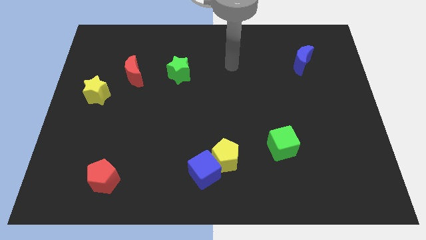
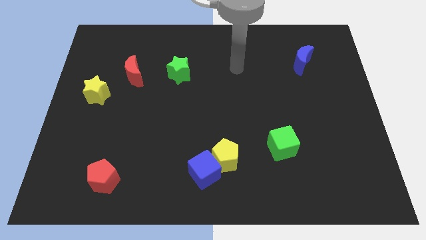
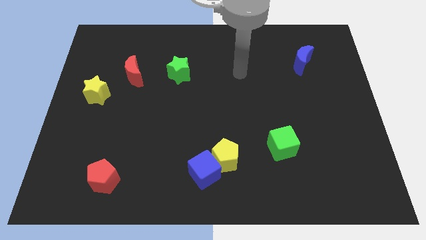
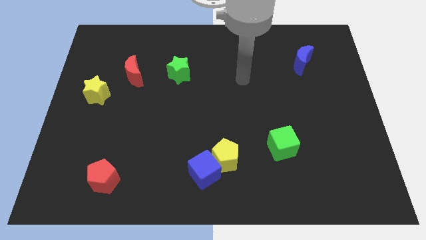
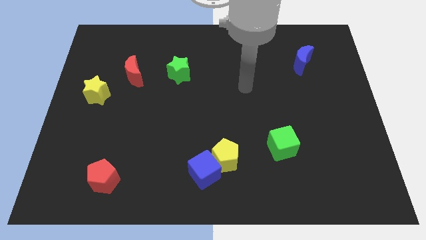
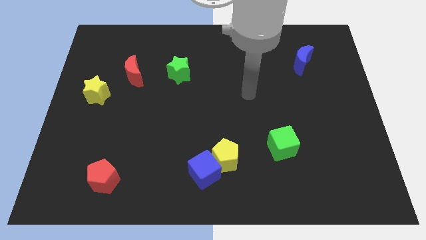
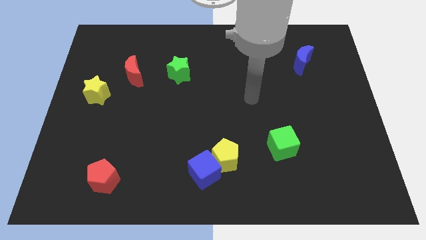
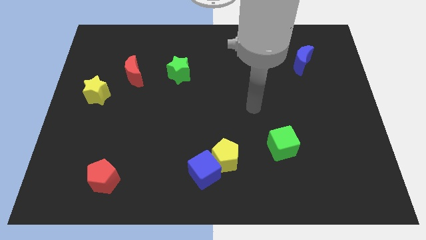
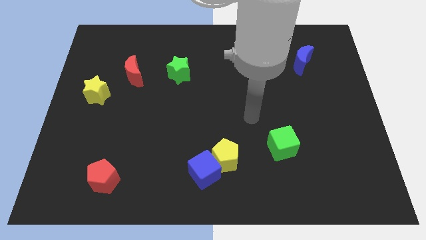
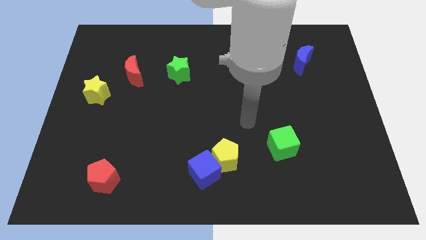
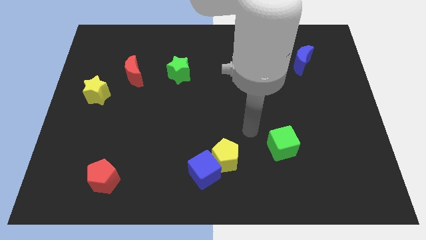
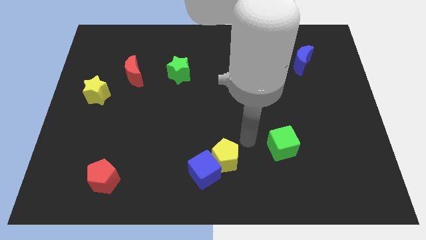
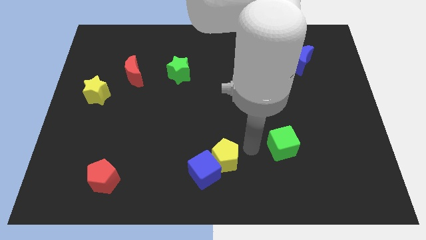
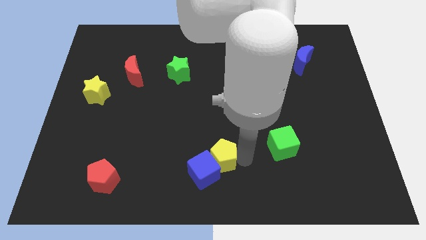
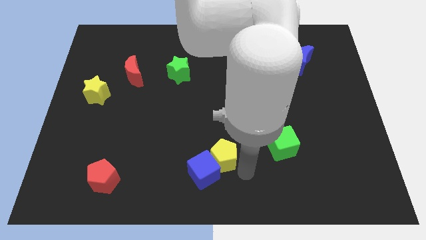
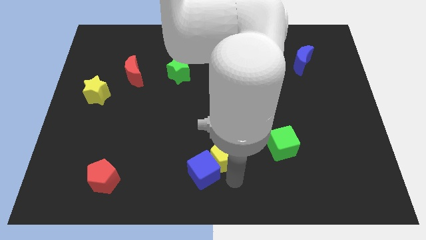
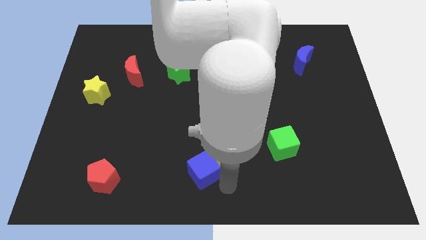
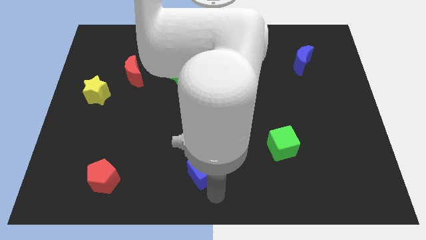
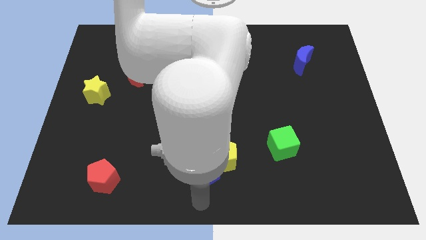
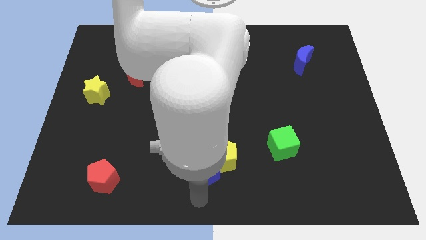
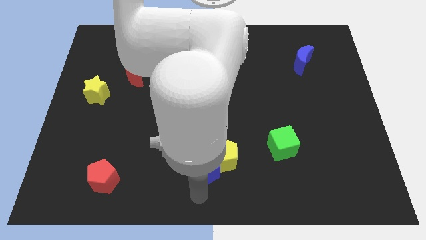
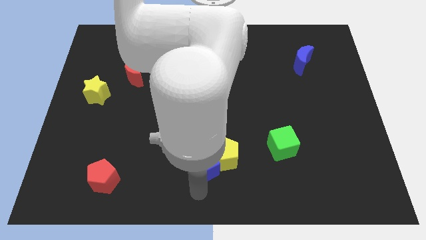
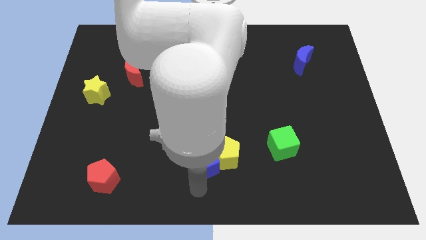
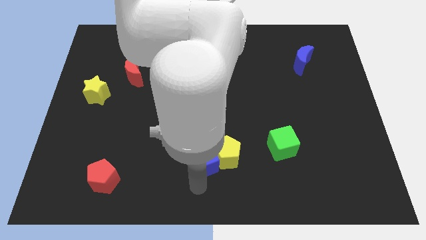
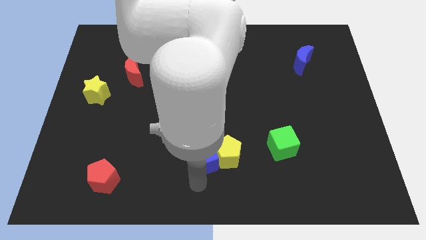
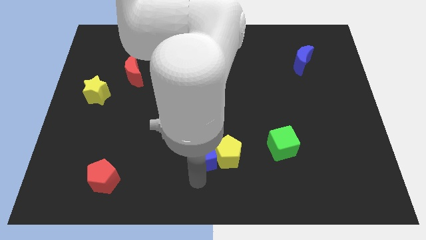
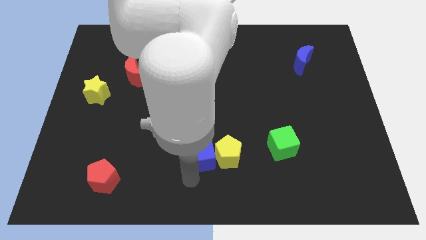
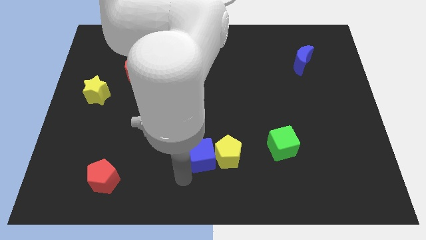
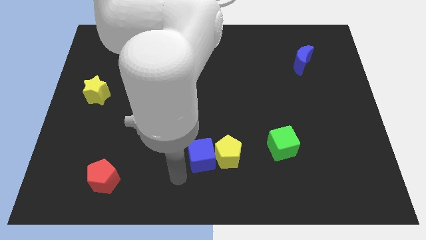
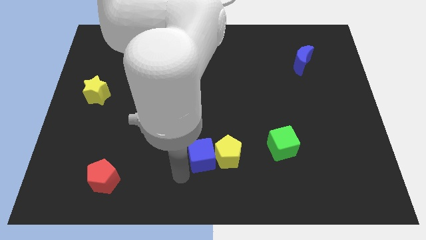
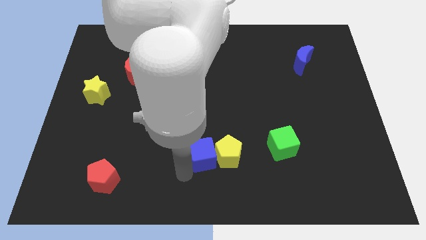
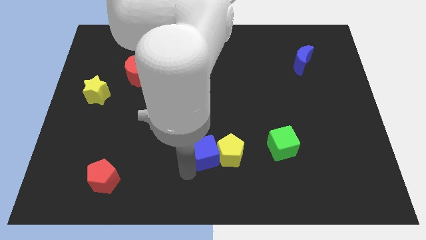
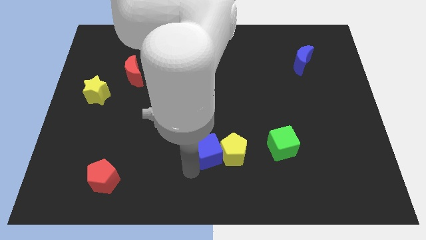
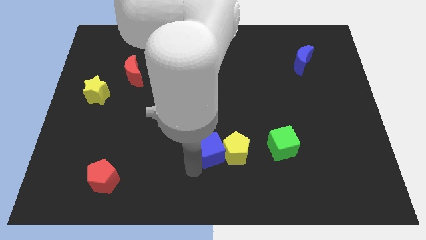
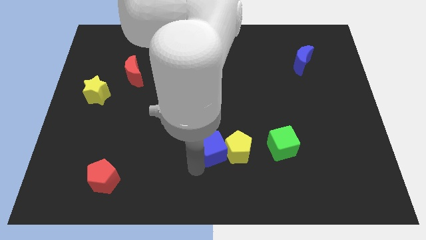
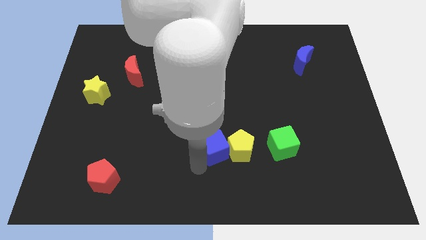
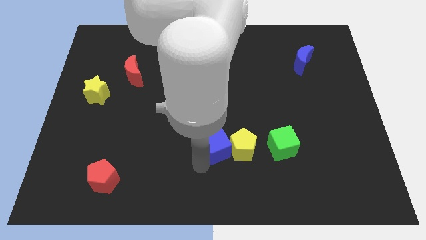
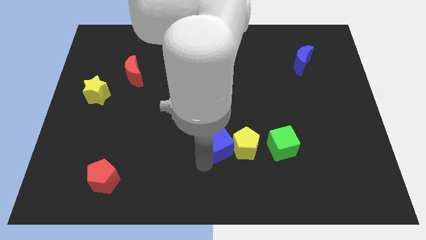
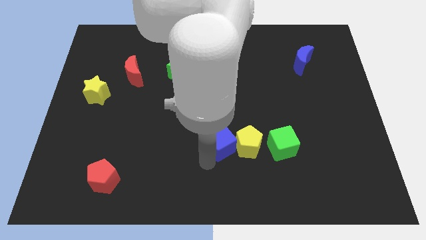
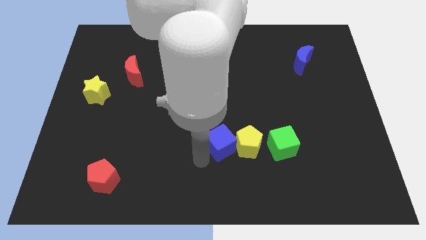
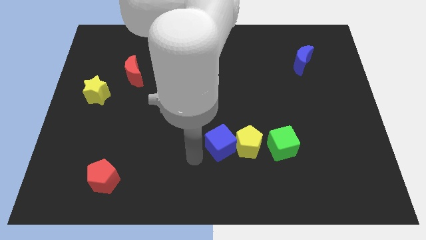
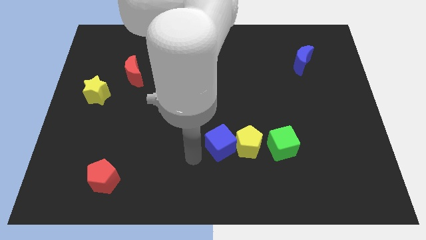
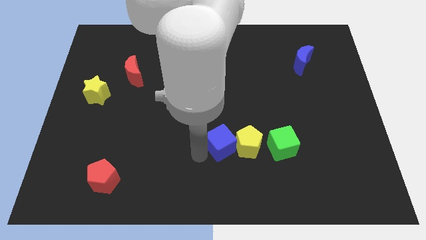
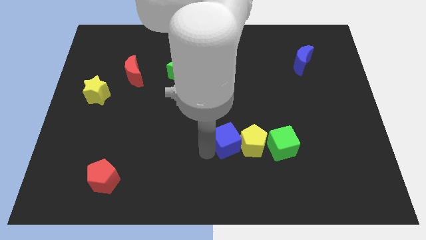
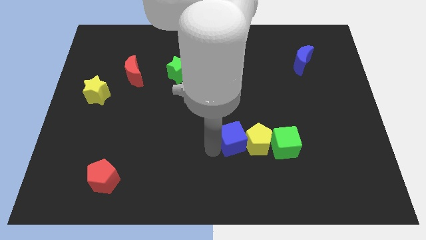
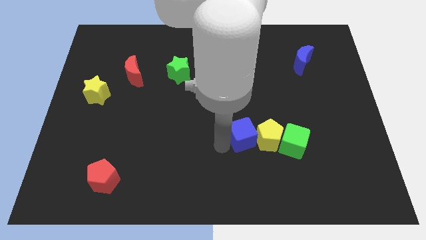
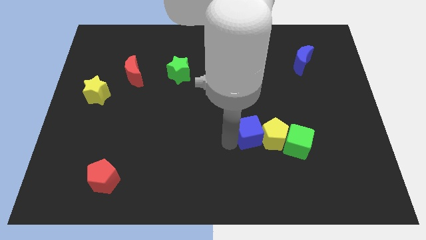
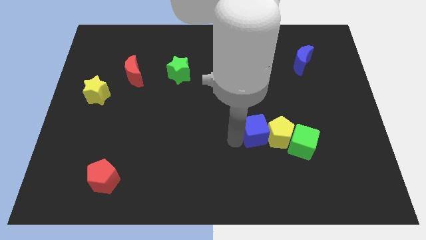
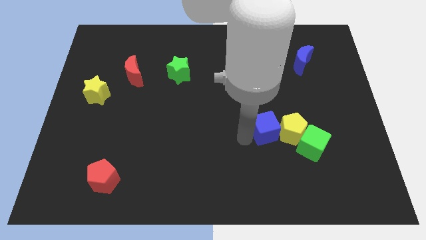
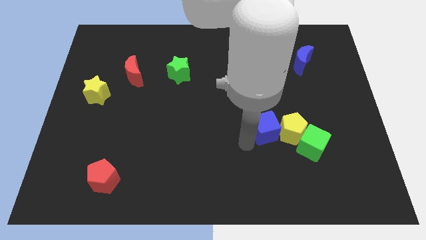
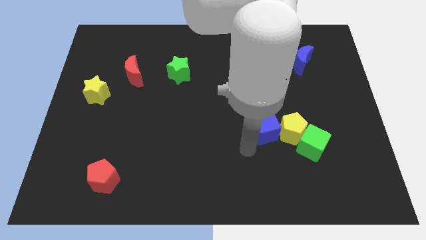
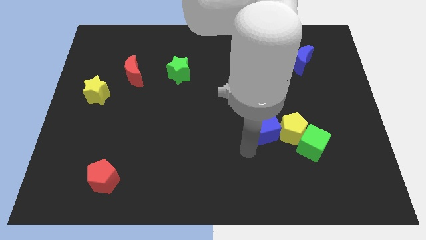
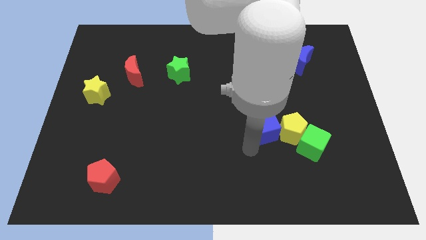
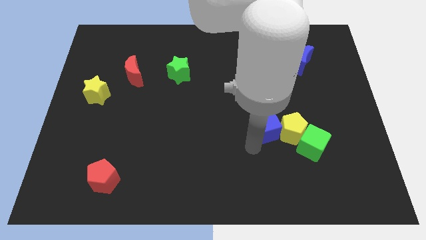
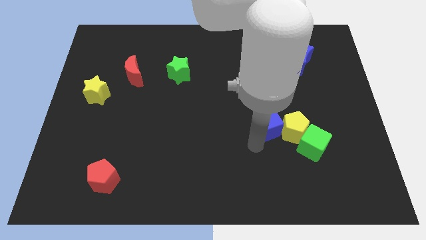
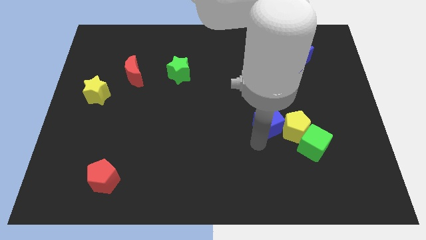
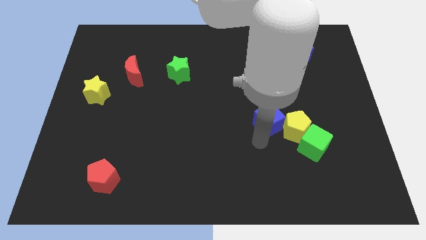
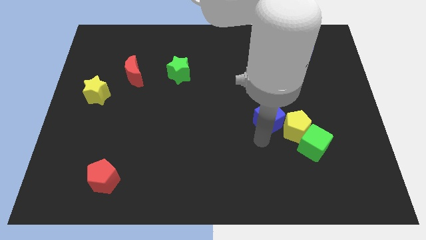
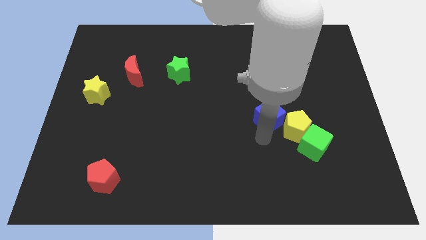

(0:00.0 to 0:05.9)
push the blue cube diagonally upwards and right

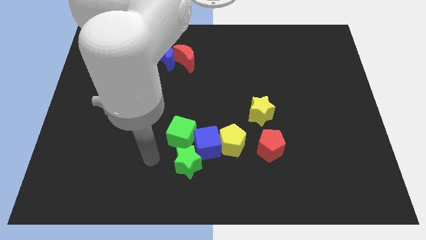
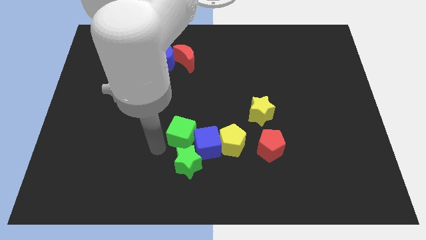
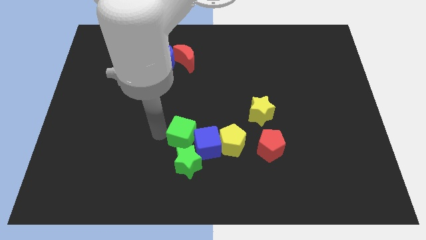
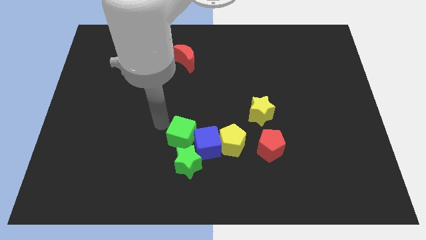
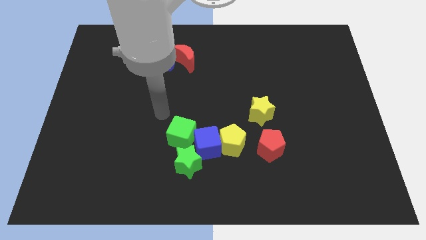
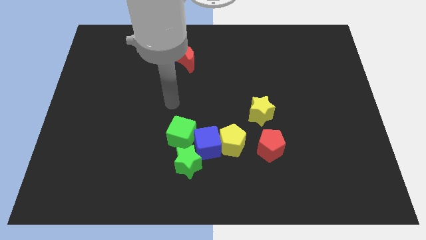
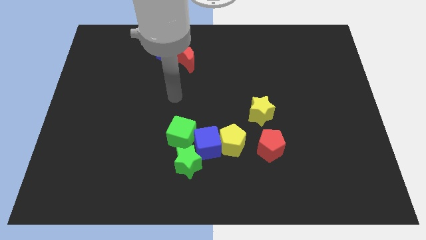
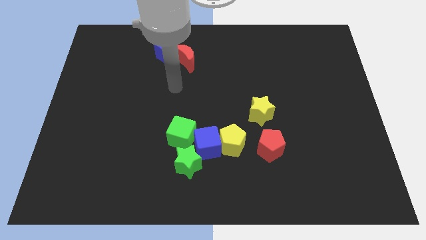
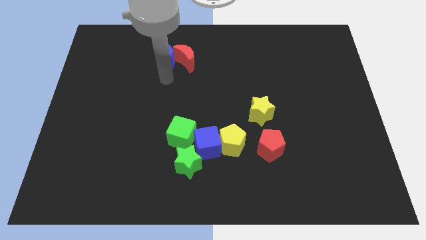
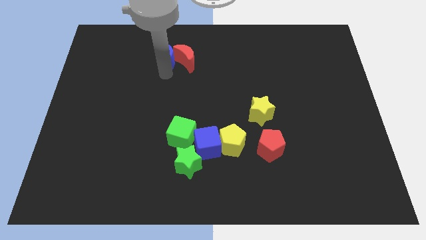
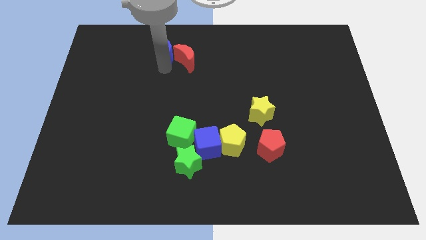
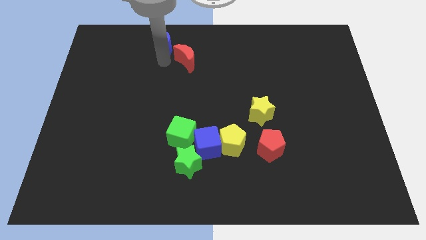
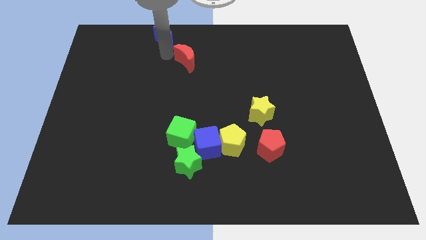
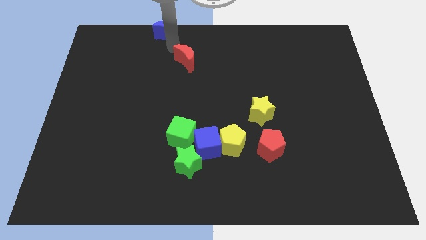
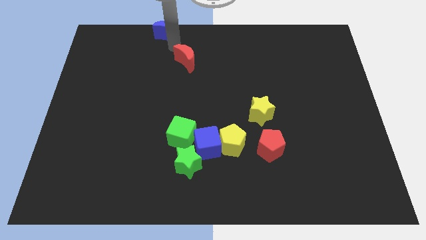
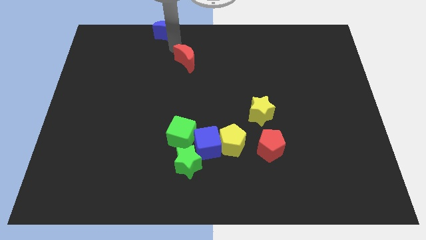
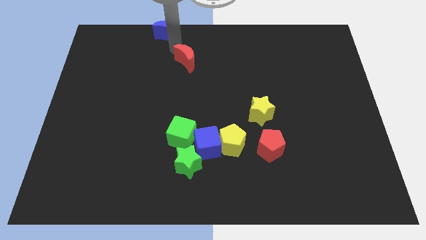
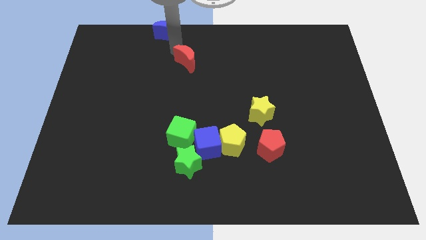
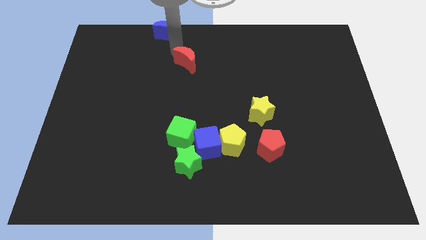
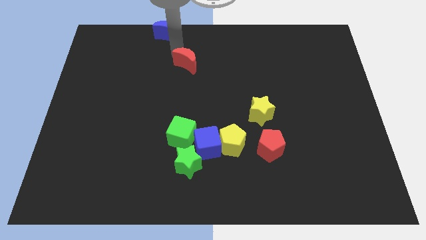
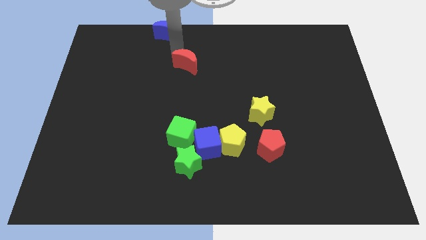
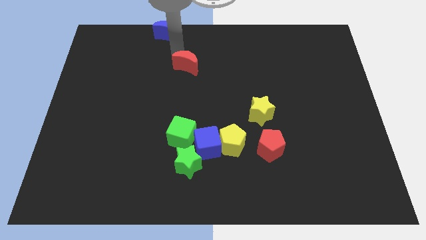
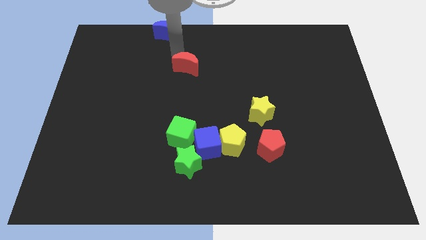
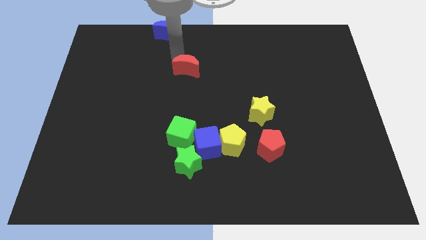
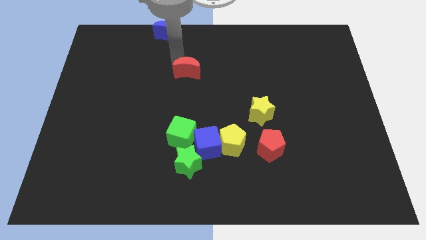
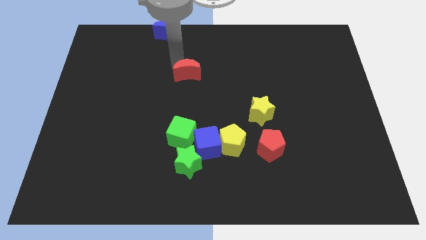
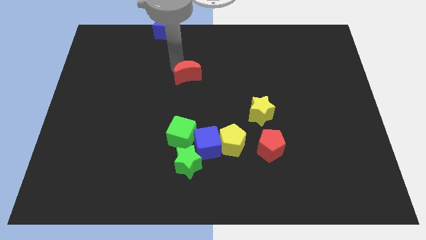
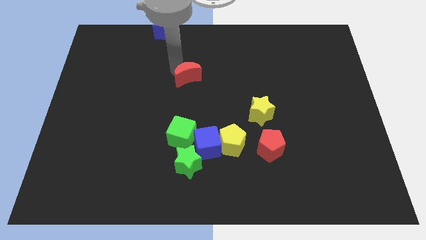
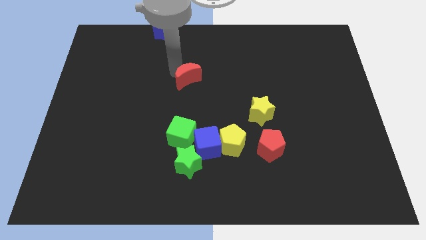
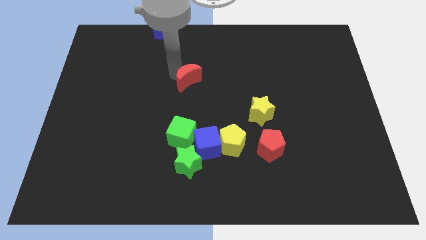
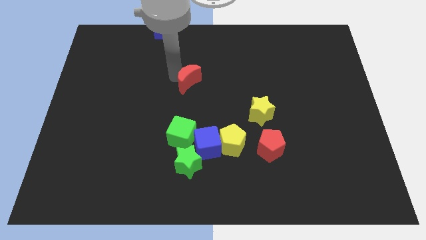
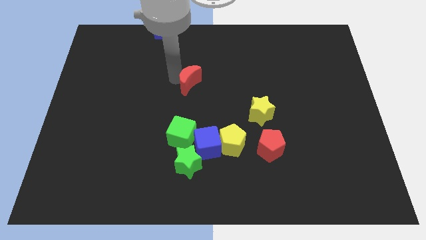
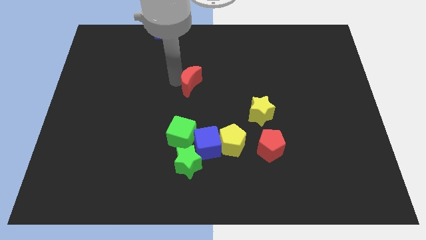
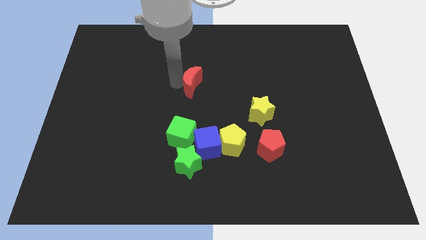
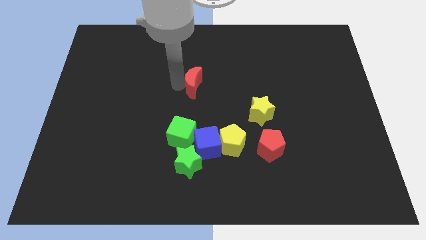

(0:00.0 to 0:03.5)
move the red moon downwards and to the right diagonally a little bit
